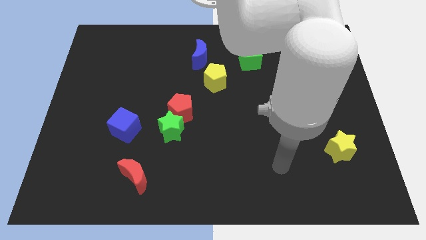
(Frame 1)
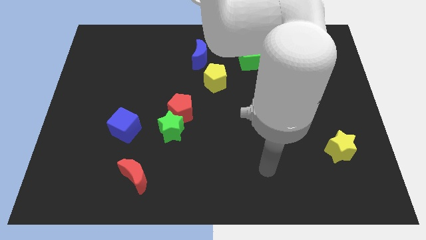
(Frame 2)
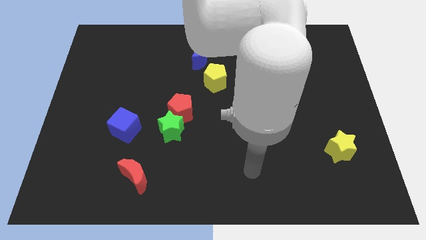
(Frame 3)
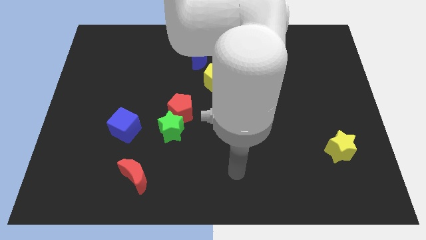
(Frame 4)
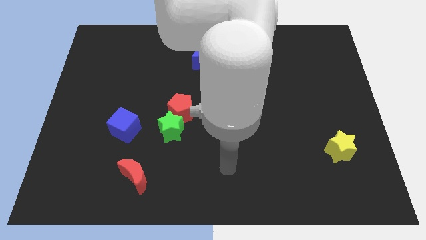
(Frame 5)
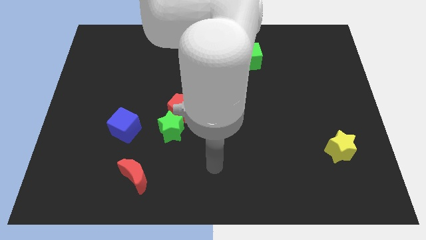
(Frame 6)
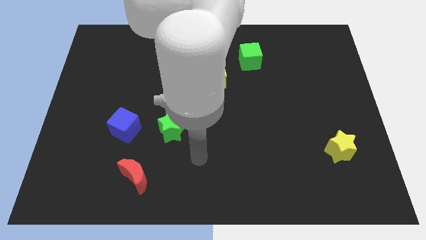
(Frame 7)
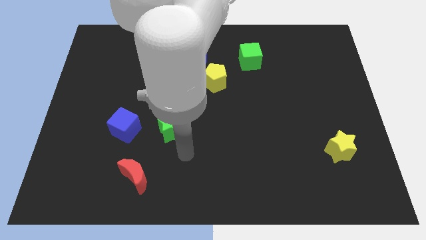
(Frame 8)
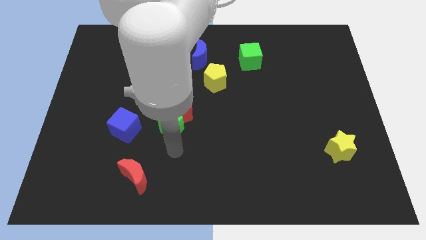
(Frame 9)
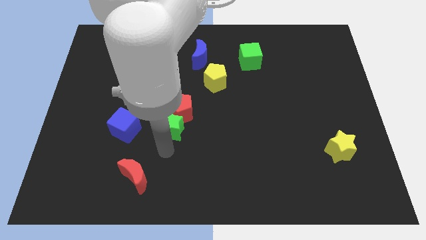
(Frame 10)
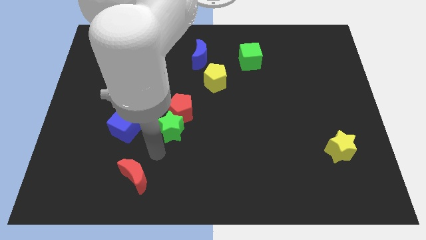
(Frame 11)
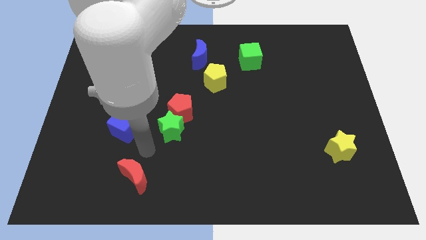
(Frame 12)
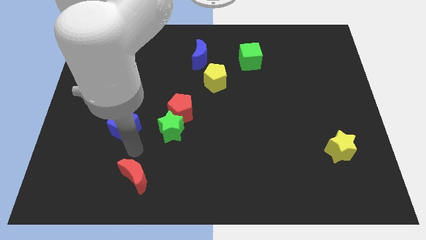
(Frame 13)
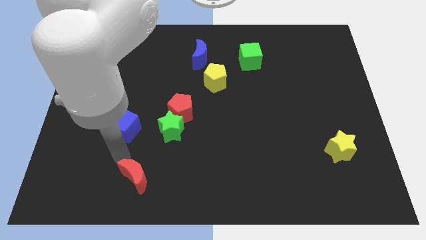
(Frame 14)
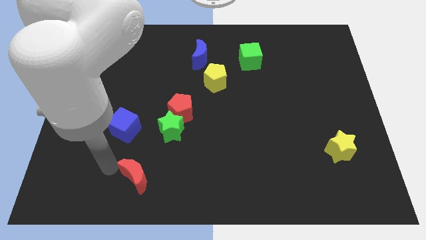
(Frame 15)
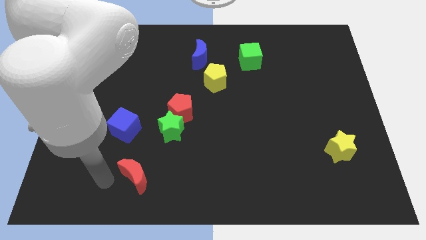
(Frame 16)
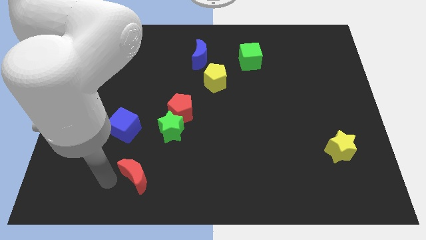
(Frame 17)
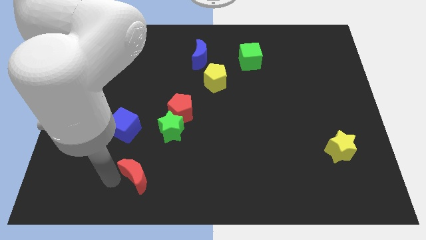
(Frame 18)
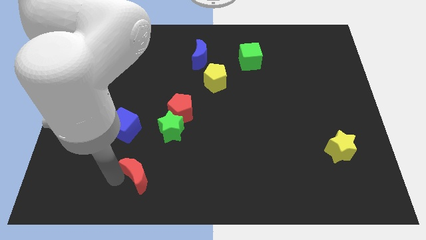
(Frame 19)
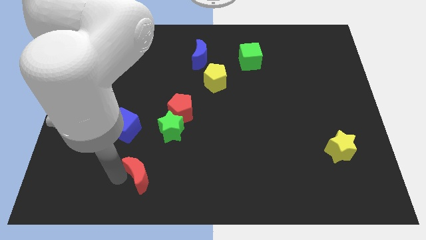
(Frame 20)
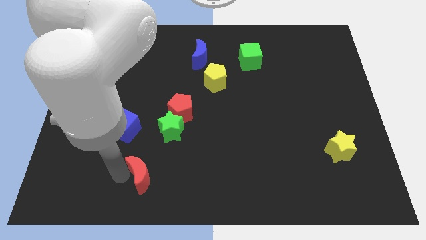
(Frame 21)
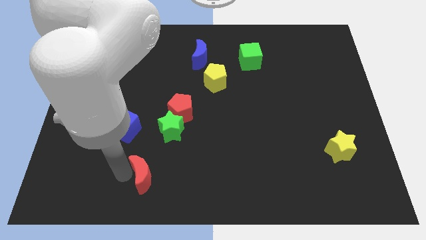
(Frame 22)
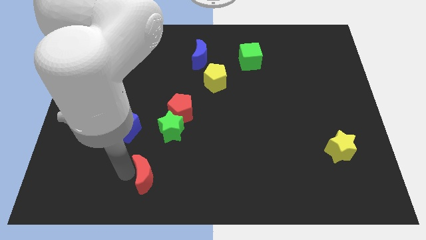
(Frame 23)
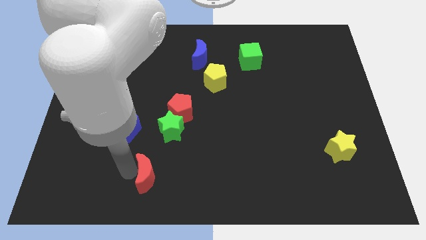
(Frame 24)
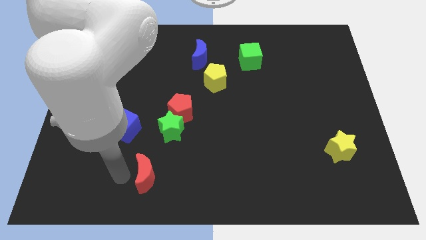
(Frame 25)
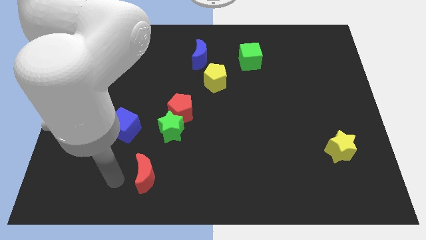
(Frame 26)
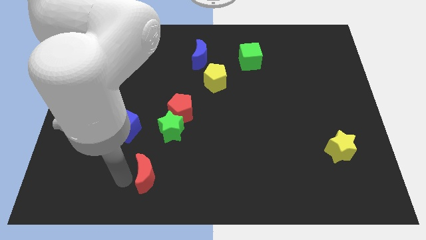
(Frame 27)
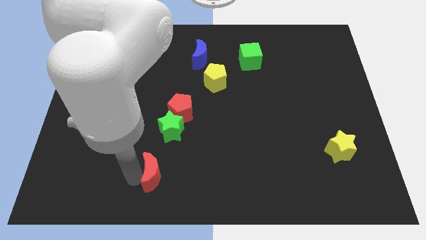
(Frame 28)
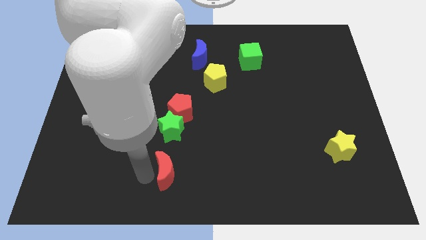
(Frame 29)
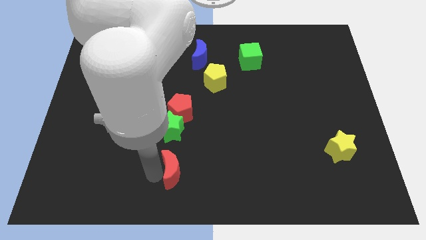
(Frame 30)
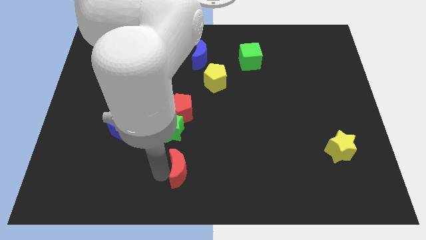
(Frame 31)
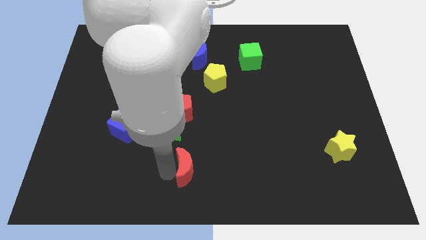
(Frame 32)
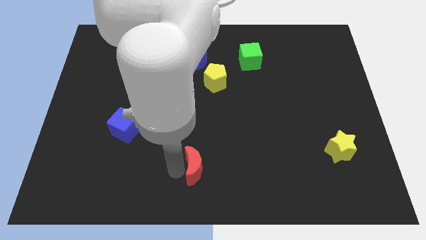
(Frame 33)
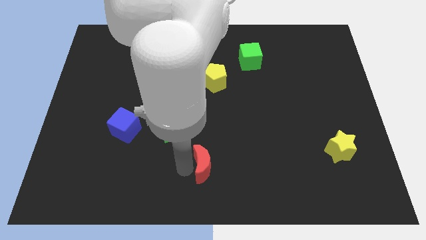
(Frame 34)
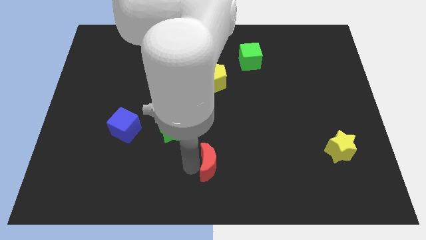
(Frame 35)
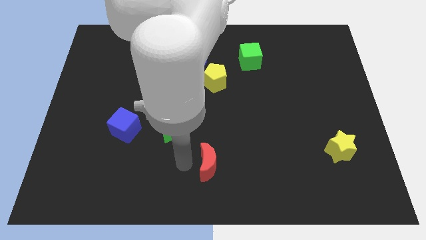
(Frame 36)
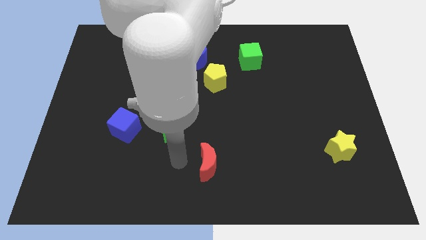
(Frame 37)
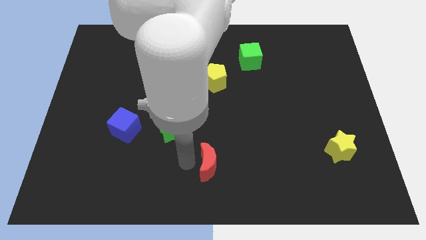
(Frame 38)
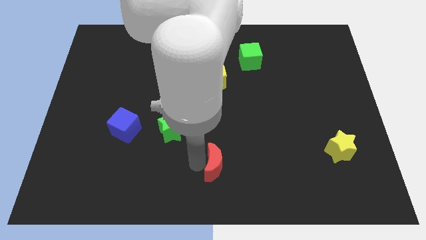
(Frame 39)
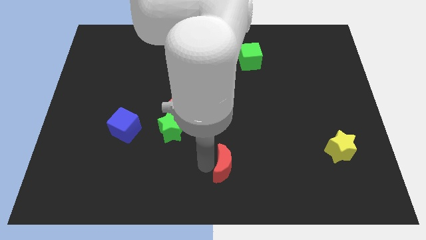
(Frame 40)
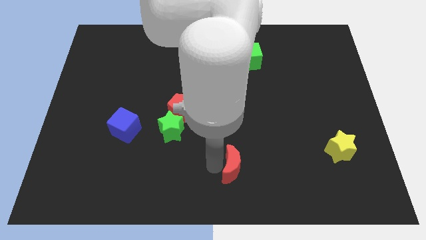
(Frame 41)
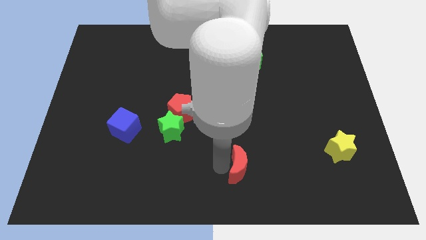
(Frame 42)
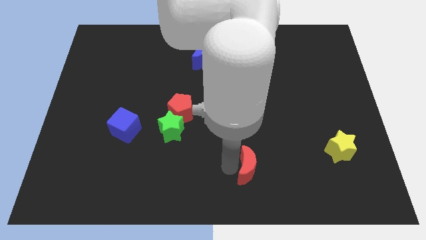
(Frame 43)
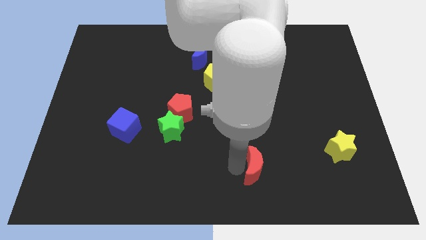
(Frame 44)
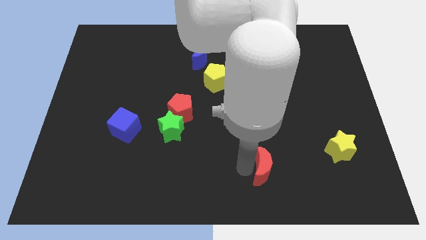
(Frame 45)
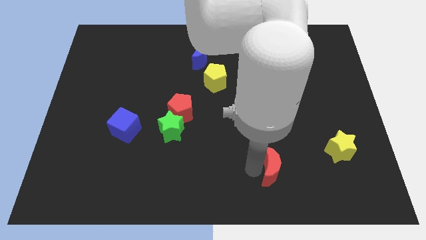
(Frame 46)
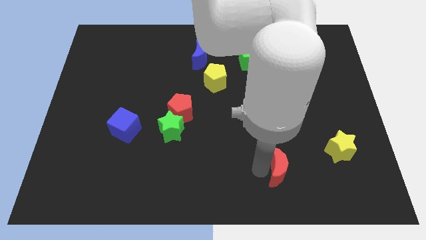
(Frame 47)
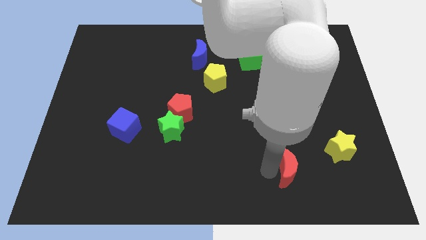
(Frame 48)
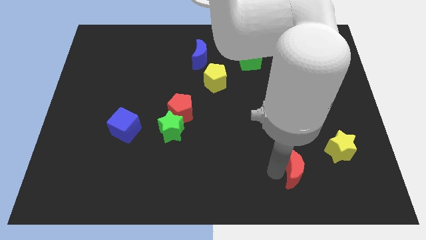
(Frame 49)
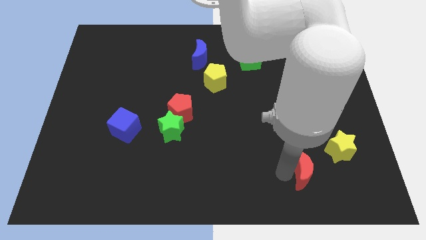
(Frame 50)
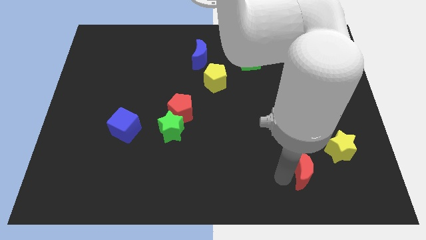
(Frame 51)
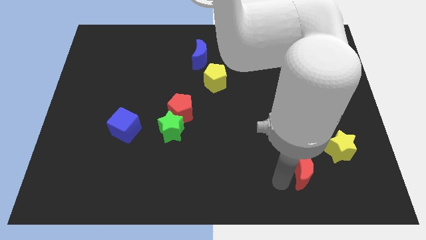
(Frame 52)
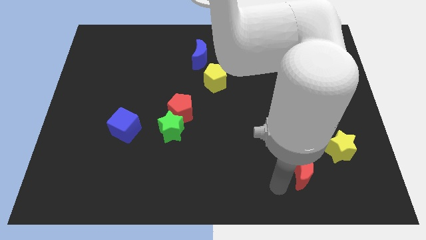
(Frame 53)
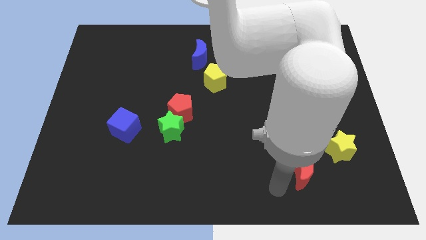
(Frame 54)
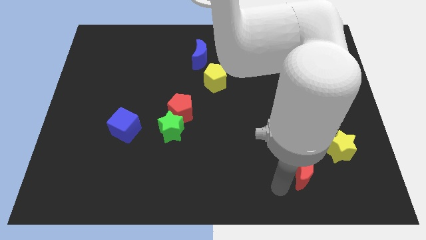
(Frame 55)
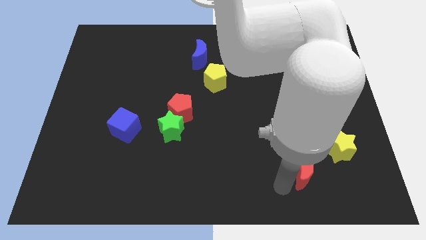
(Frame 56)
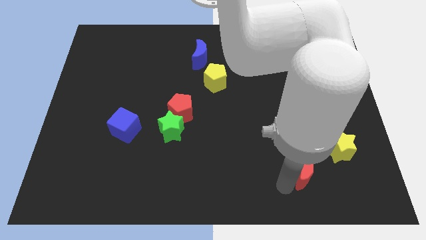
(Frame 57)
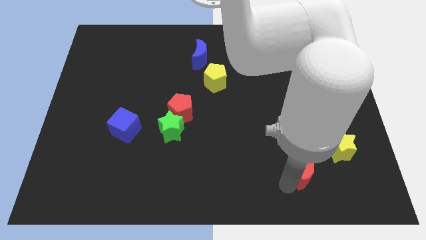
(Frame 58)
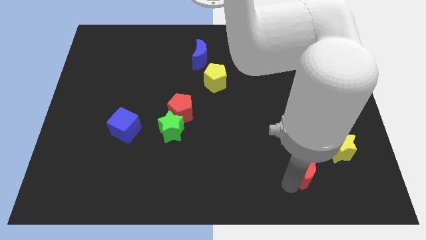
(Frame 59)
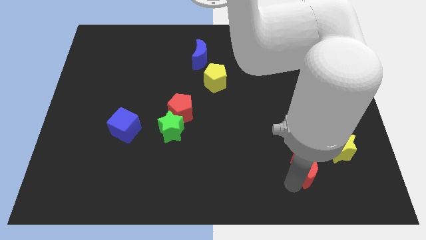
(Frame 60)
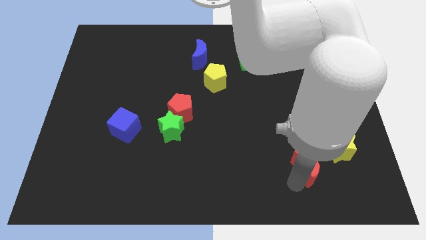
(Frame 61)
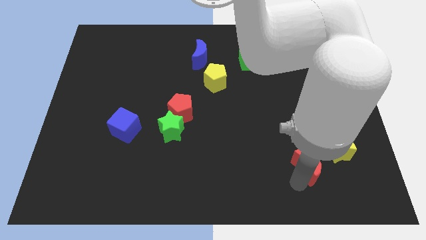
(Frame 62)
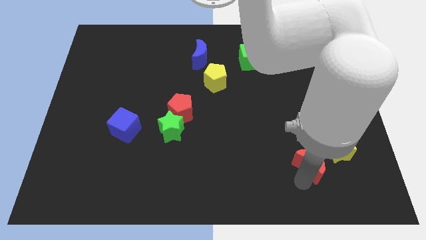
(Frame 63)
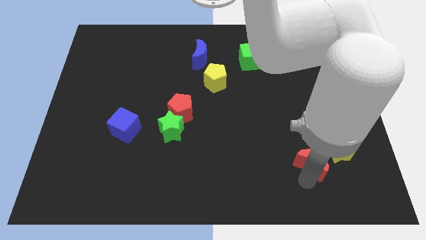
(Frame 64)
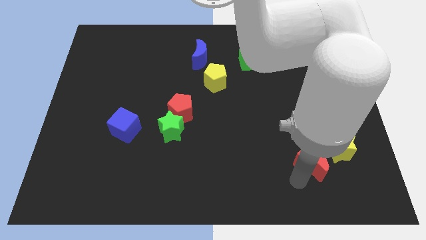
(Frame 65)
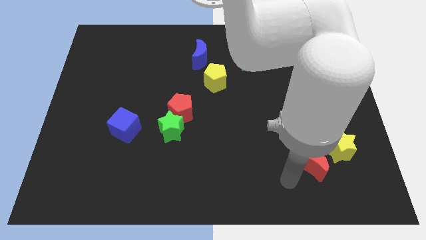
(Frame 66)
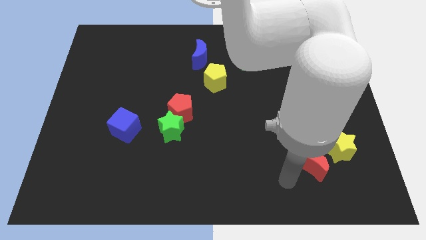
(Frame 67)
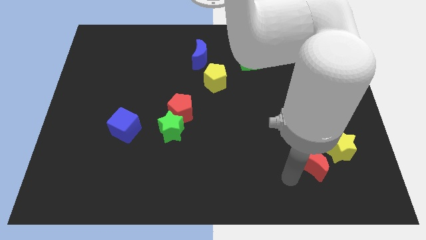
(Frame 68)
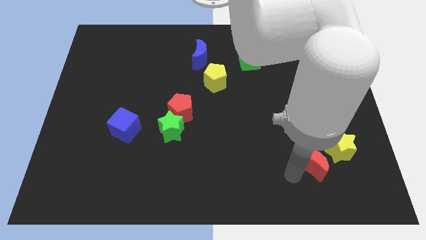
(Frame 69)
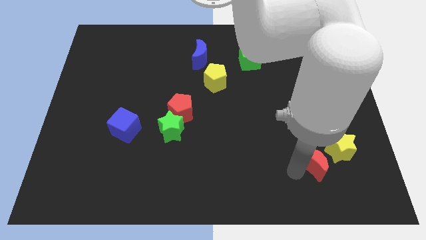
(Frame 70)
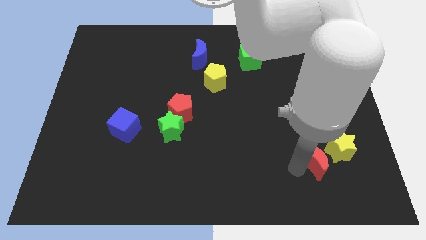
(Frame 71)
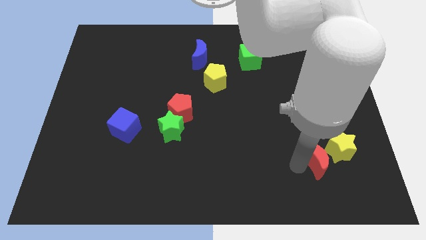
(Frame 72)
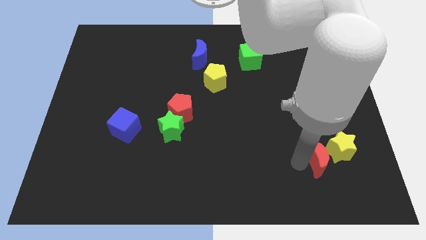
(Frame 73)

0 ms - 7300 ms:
move the red moon to the yellow star

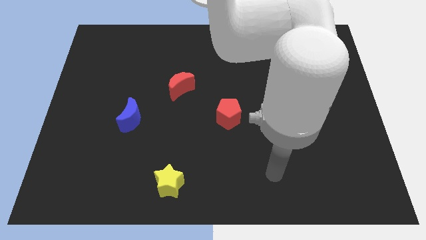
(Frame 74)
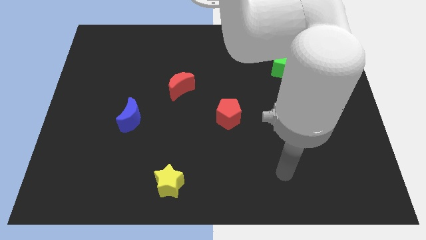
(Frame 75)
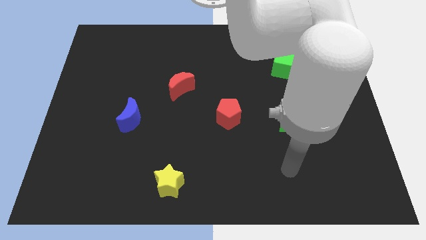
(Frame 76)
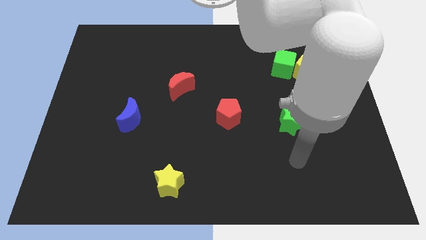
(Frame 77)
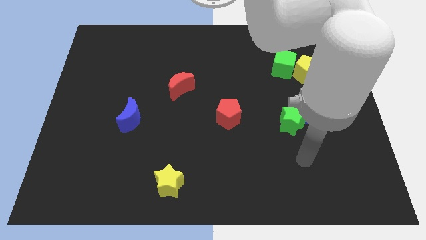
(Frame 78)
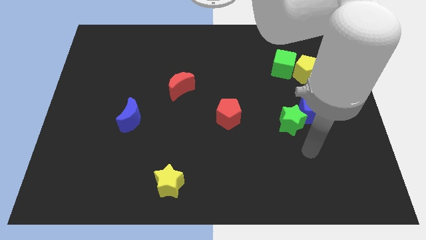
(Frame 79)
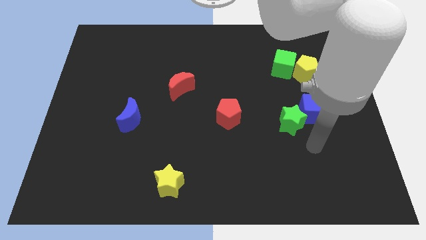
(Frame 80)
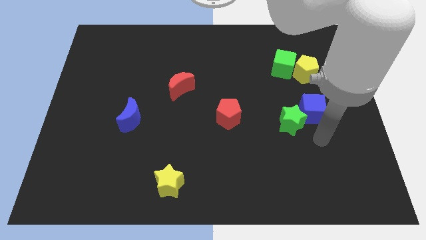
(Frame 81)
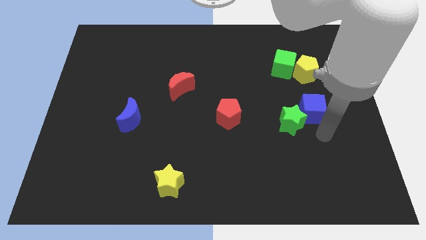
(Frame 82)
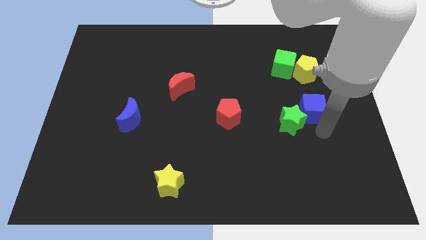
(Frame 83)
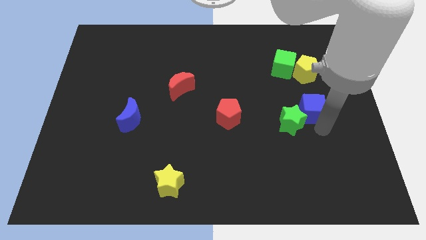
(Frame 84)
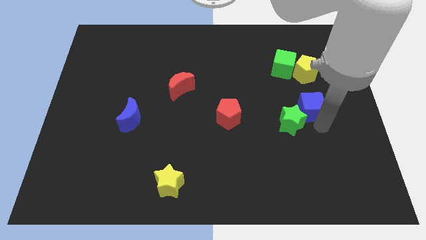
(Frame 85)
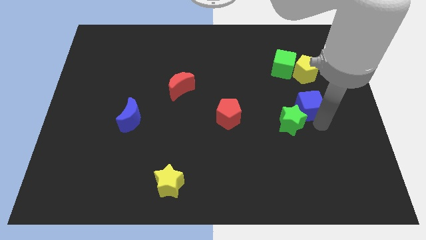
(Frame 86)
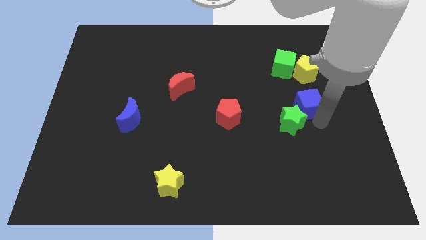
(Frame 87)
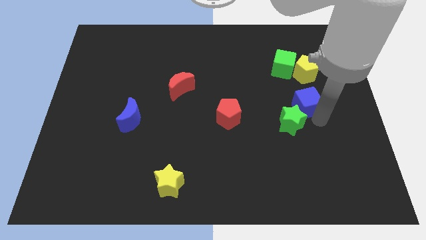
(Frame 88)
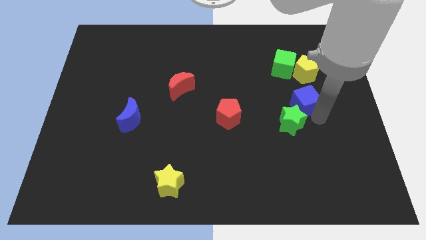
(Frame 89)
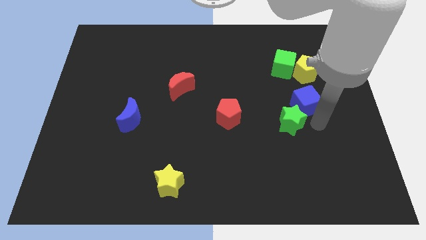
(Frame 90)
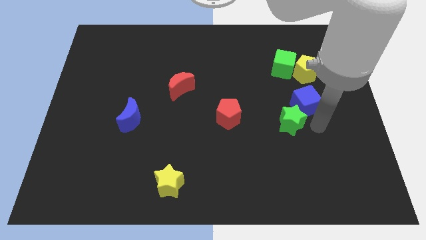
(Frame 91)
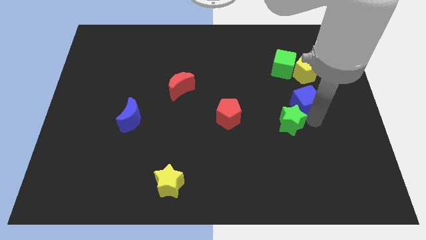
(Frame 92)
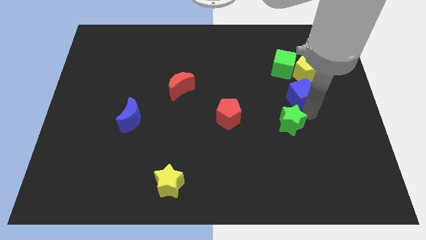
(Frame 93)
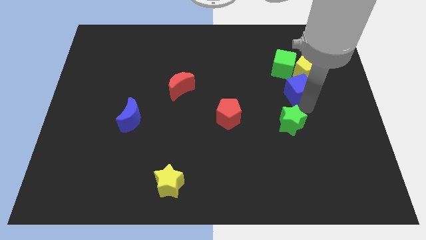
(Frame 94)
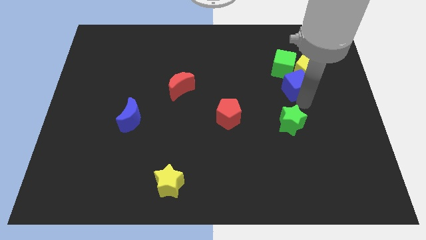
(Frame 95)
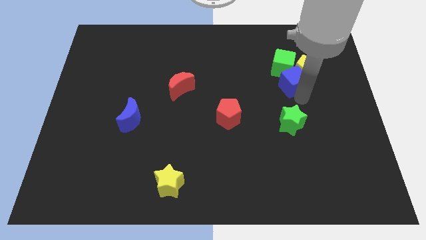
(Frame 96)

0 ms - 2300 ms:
put the blue cube towards the green cube
